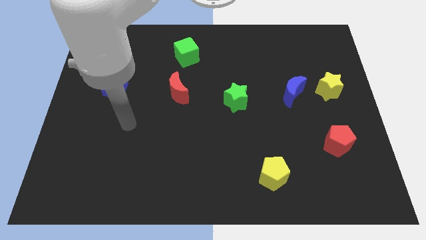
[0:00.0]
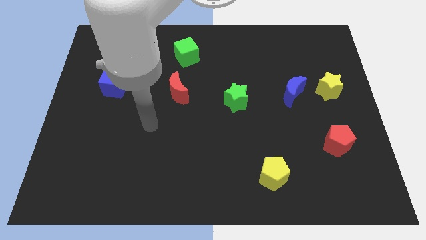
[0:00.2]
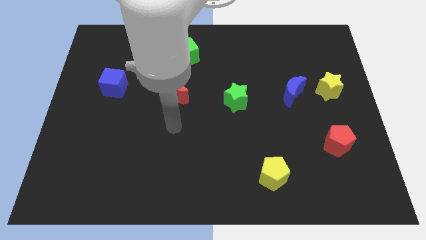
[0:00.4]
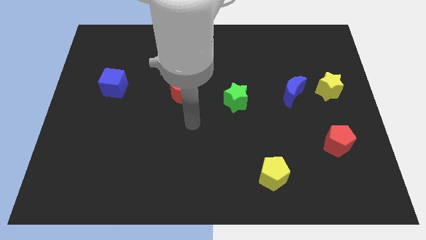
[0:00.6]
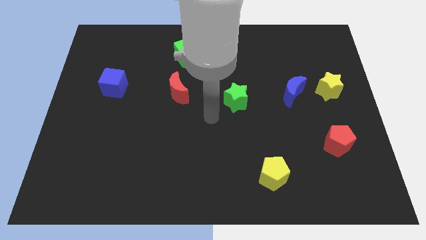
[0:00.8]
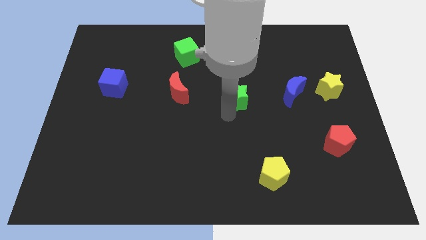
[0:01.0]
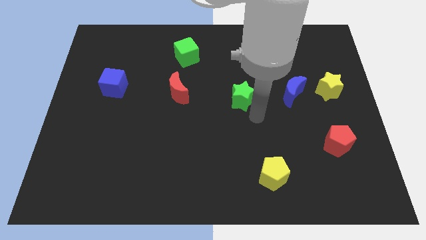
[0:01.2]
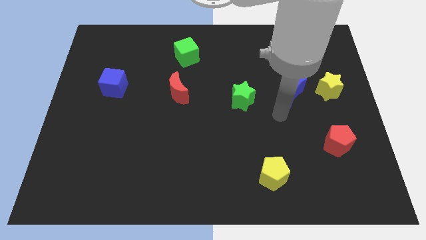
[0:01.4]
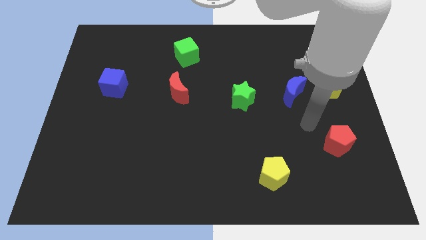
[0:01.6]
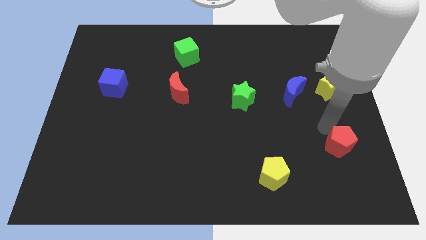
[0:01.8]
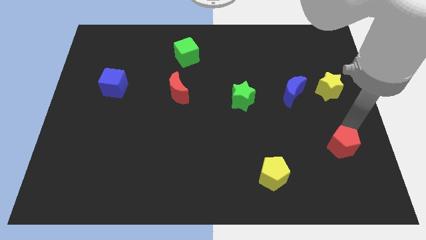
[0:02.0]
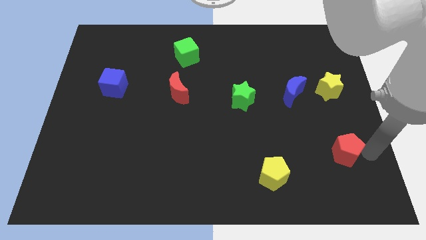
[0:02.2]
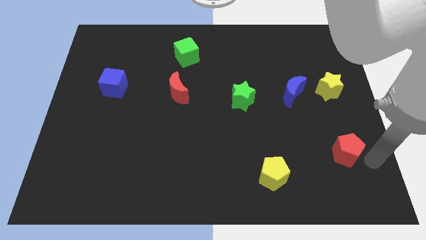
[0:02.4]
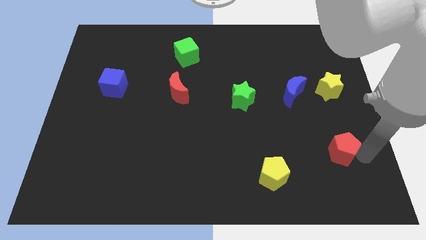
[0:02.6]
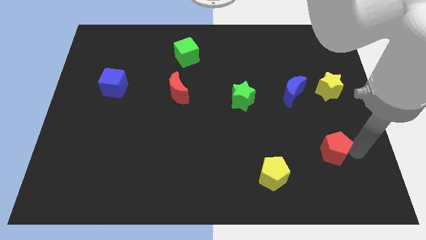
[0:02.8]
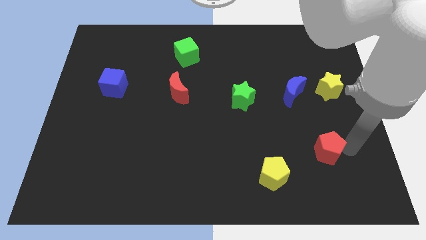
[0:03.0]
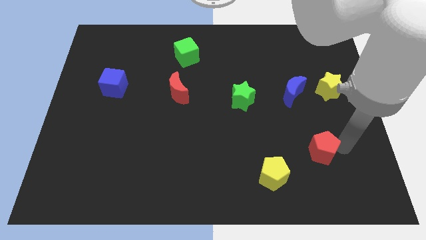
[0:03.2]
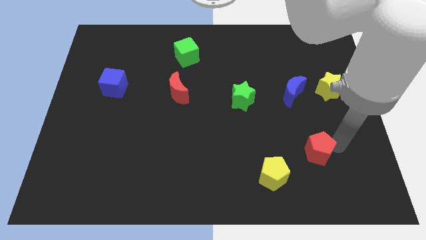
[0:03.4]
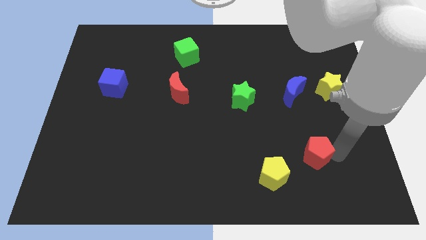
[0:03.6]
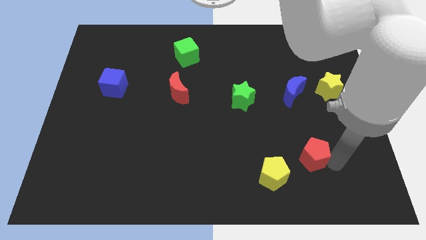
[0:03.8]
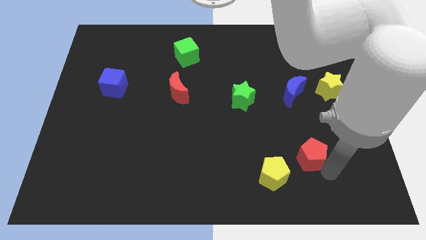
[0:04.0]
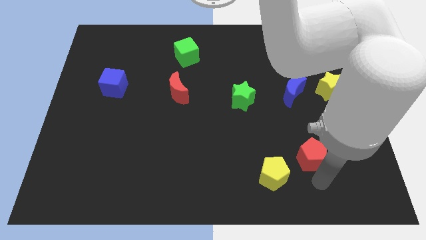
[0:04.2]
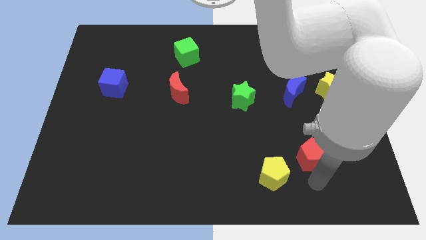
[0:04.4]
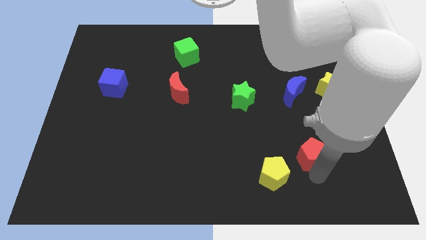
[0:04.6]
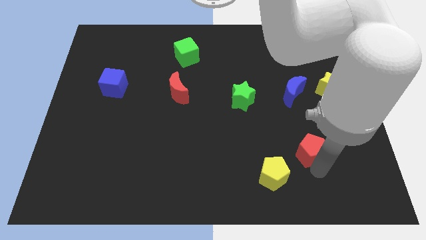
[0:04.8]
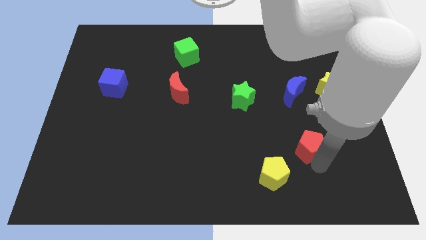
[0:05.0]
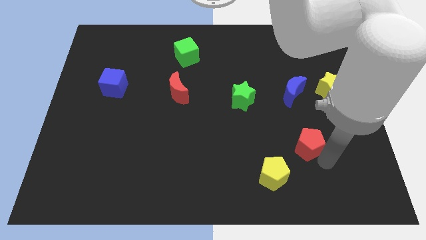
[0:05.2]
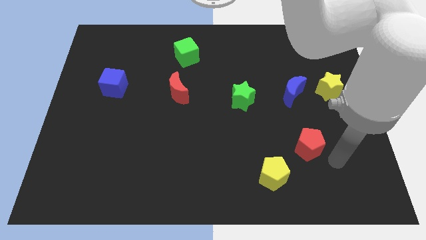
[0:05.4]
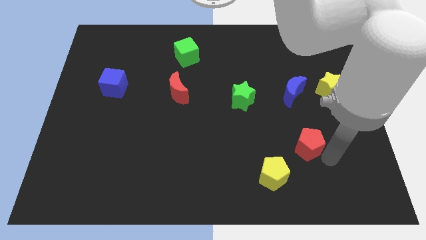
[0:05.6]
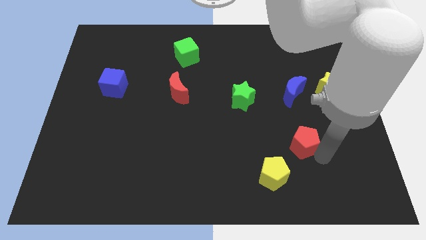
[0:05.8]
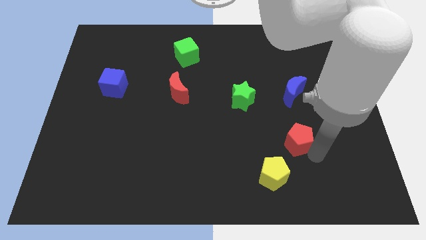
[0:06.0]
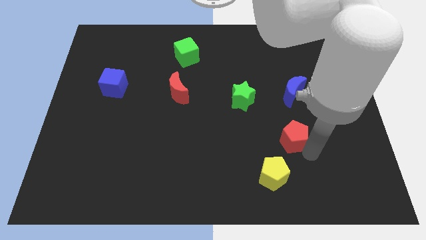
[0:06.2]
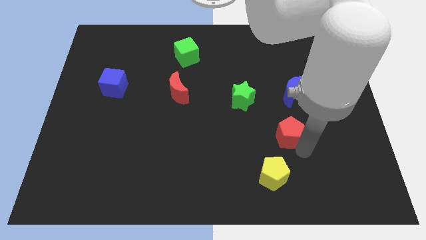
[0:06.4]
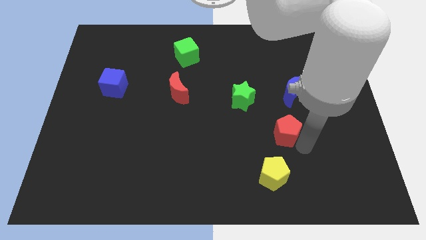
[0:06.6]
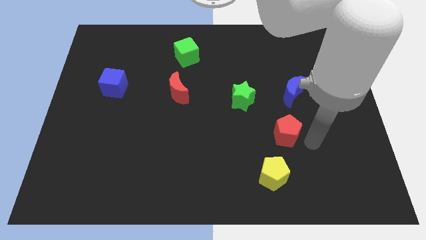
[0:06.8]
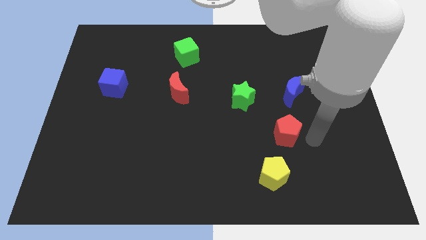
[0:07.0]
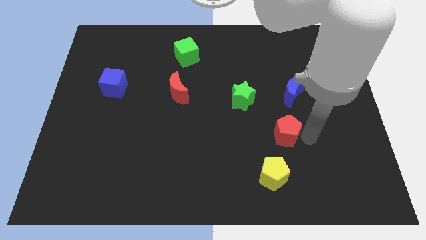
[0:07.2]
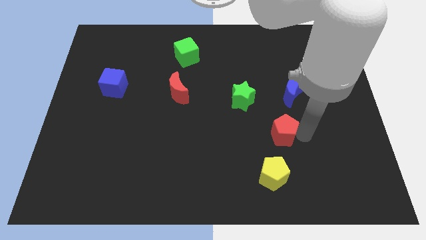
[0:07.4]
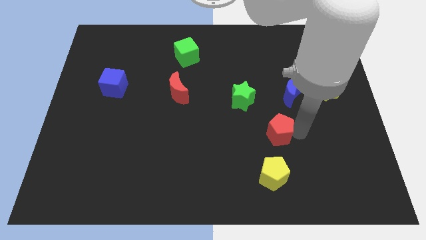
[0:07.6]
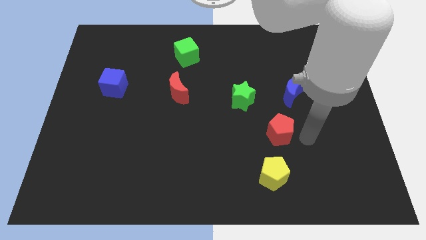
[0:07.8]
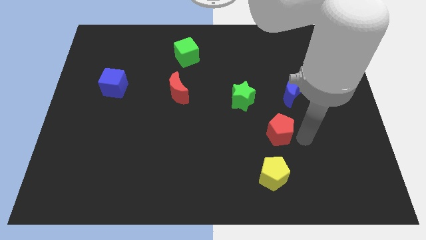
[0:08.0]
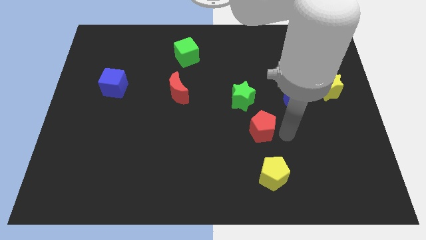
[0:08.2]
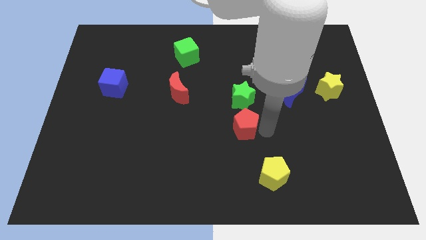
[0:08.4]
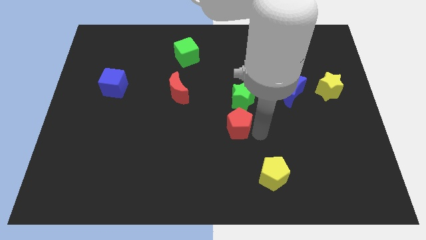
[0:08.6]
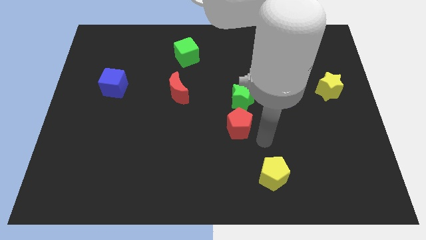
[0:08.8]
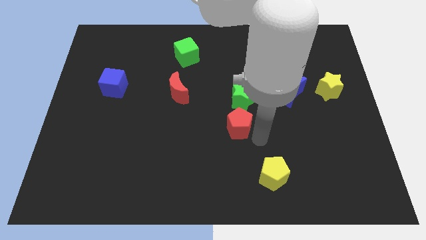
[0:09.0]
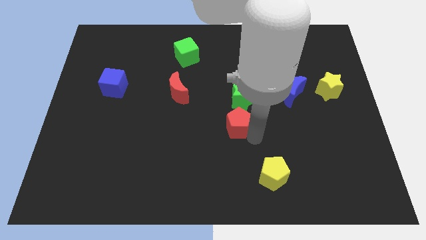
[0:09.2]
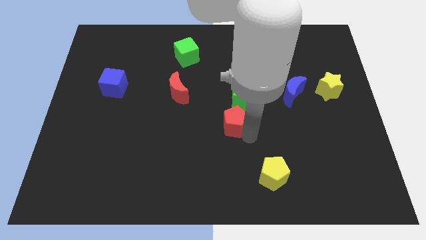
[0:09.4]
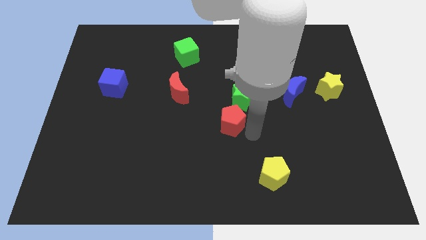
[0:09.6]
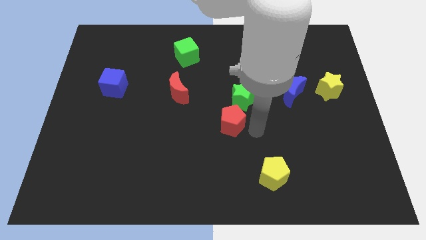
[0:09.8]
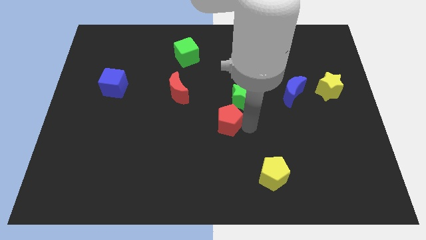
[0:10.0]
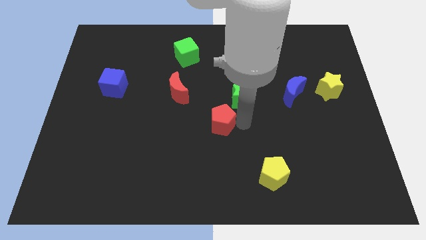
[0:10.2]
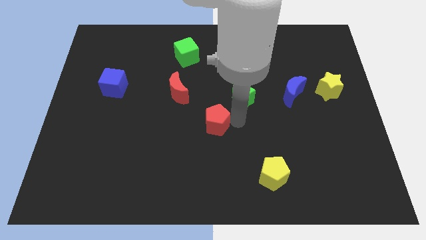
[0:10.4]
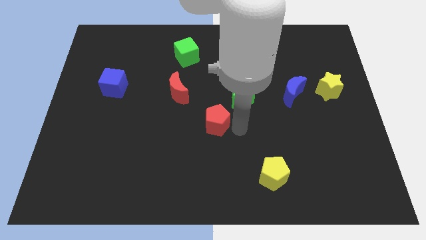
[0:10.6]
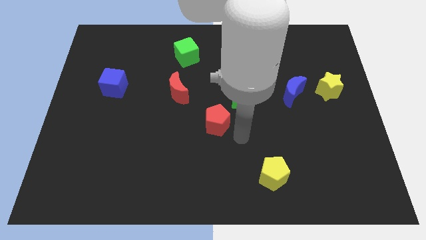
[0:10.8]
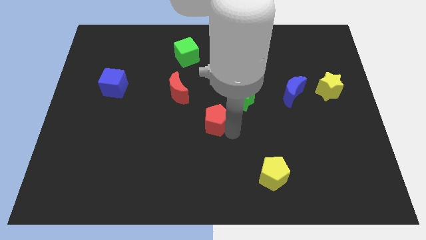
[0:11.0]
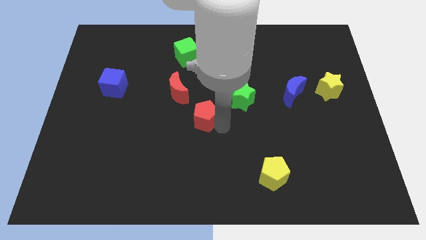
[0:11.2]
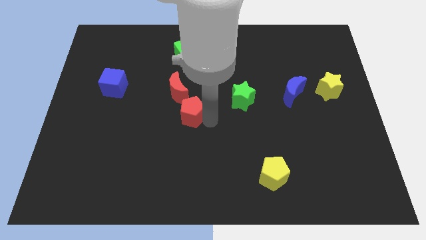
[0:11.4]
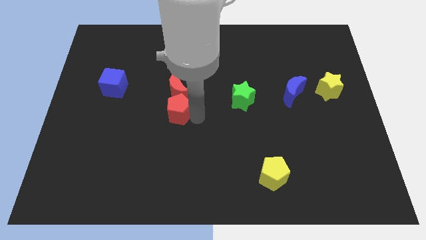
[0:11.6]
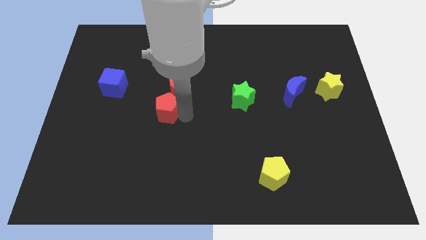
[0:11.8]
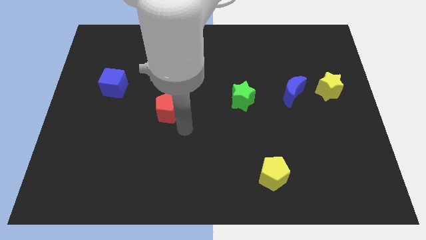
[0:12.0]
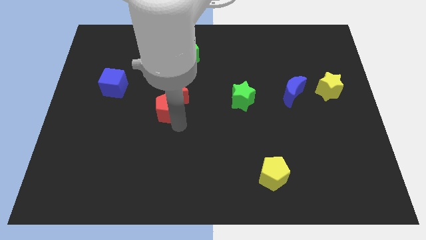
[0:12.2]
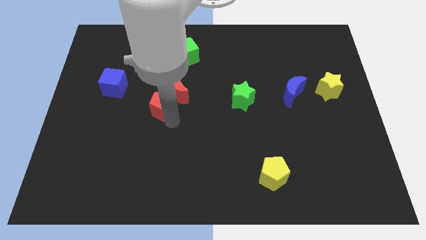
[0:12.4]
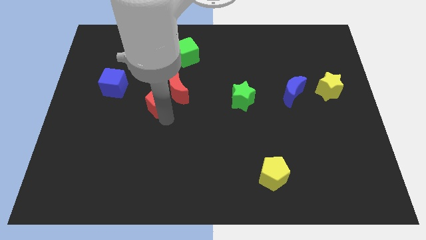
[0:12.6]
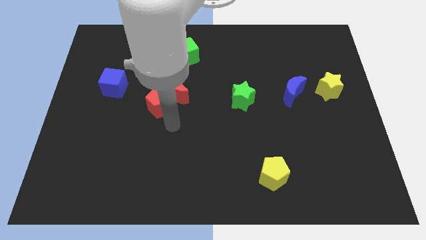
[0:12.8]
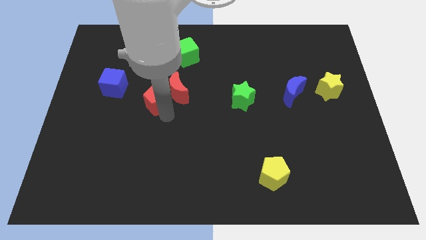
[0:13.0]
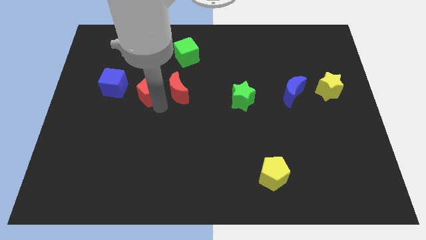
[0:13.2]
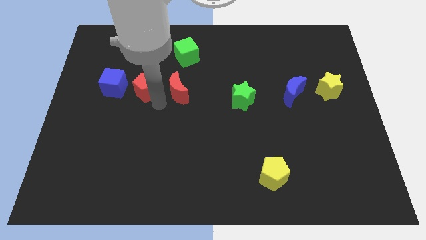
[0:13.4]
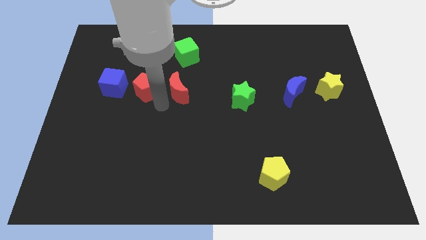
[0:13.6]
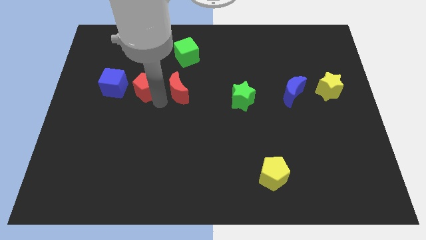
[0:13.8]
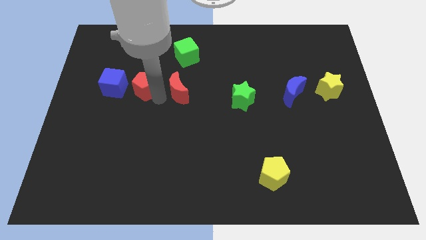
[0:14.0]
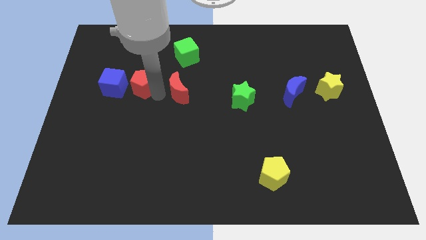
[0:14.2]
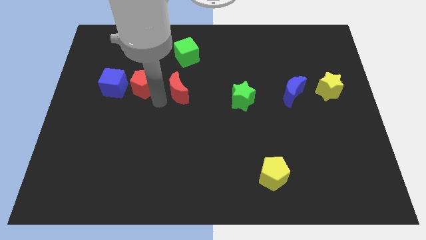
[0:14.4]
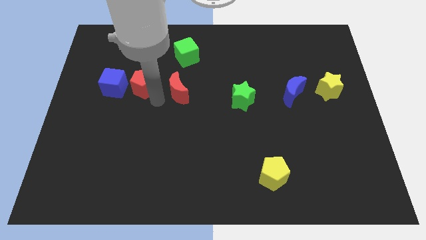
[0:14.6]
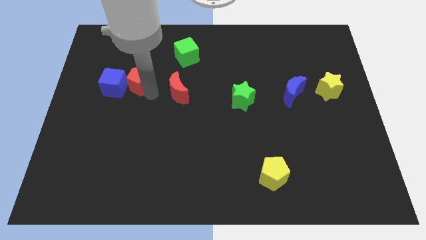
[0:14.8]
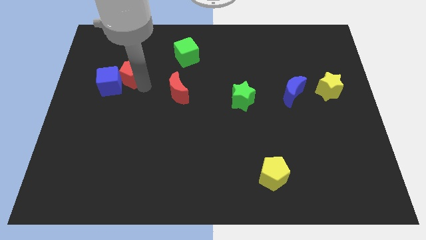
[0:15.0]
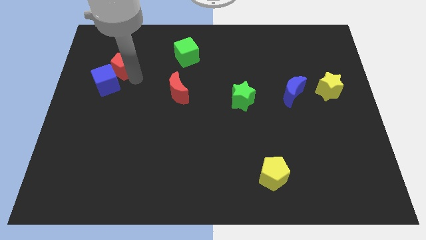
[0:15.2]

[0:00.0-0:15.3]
slide the red pentagon to the top side of the blue cube
